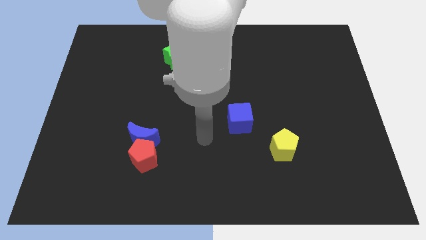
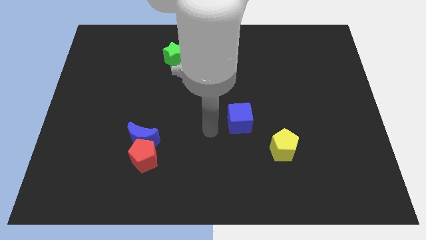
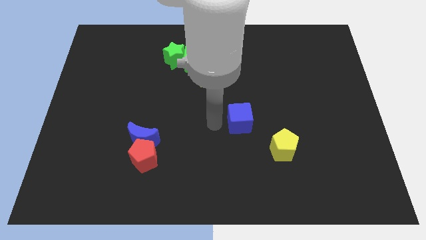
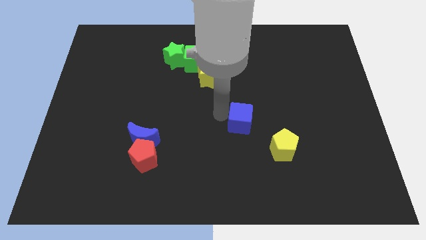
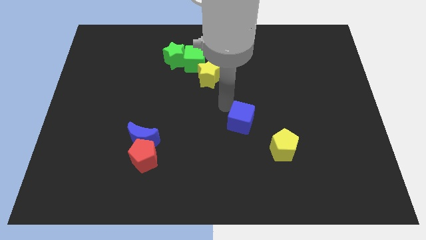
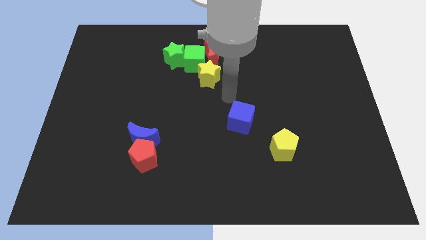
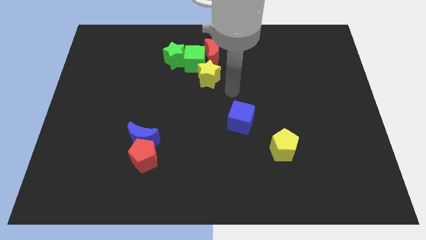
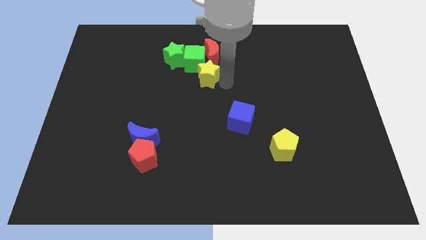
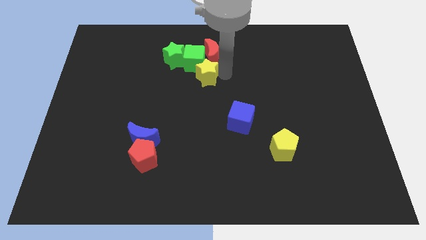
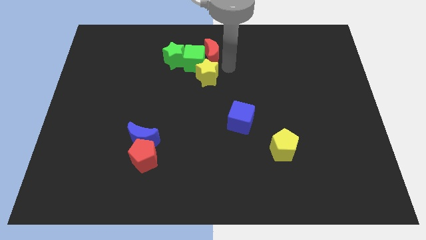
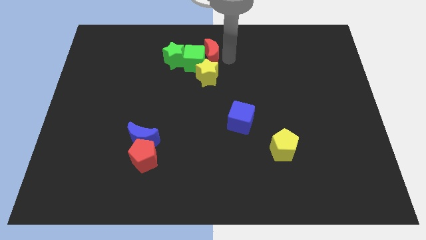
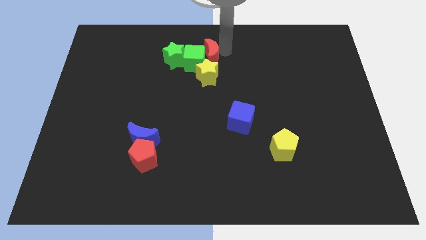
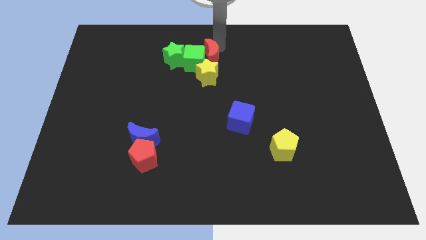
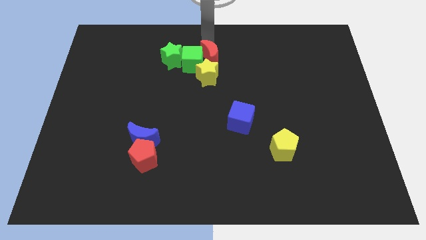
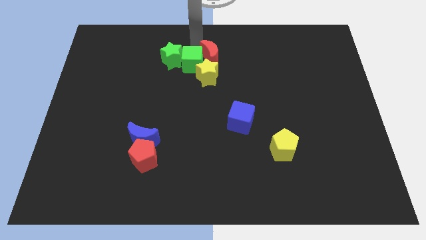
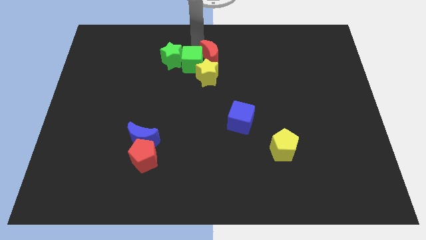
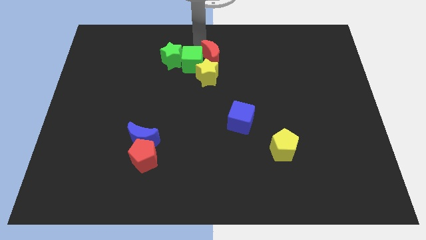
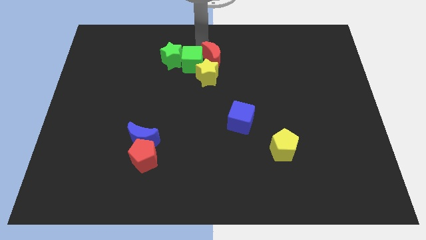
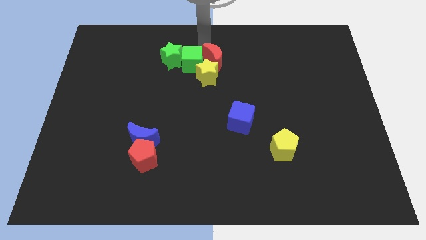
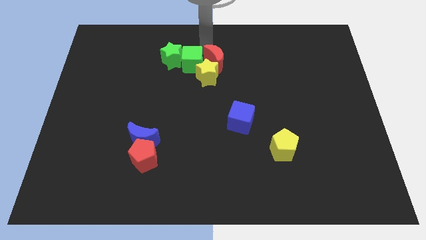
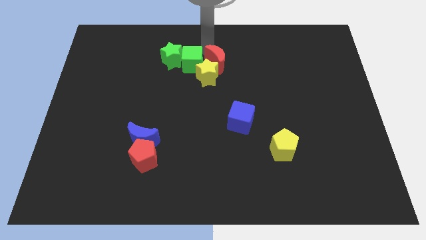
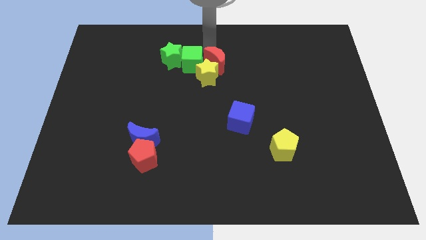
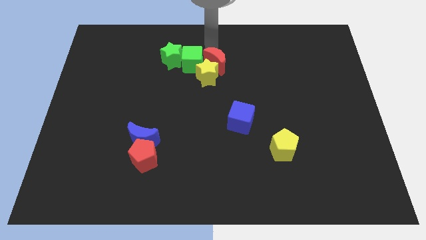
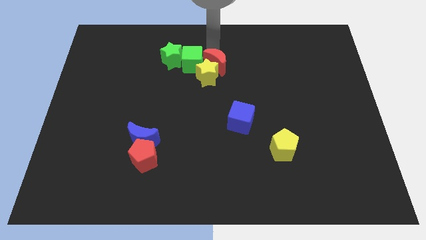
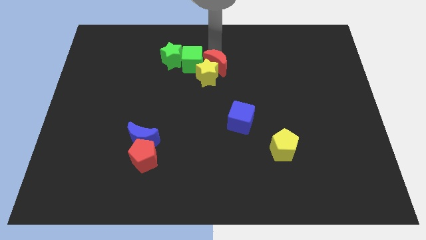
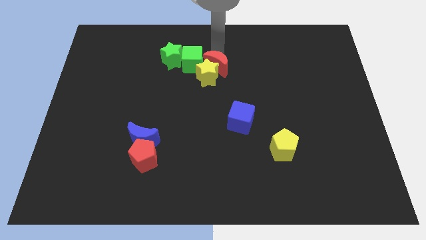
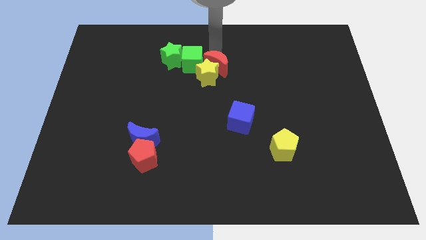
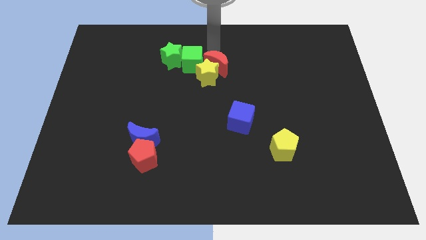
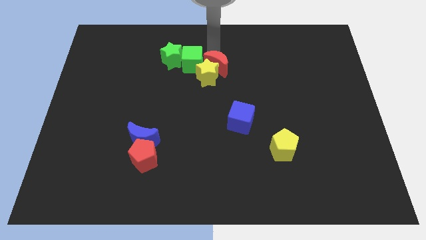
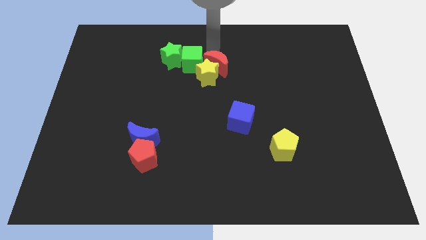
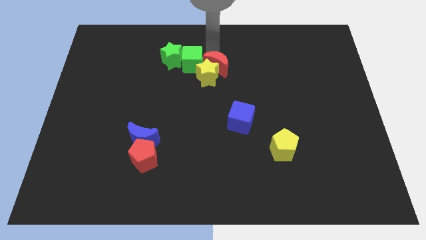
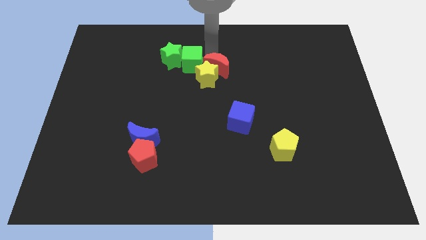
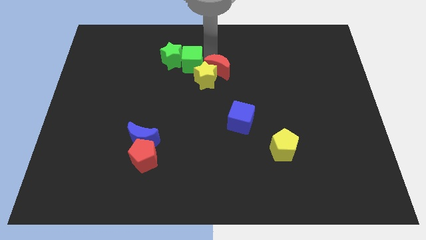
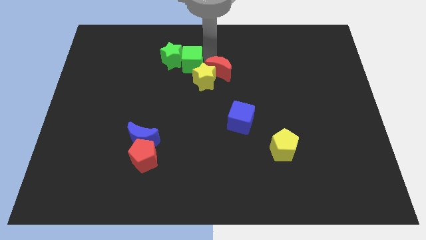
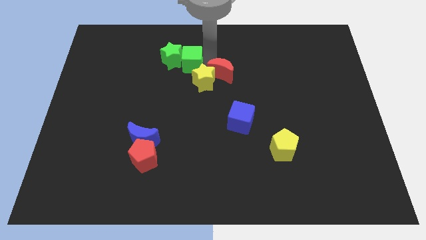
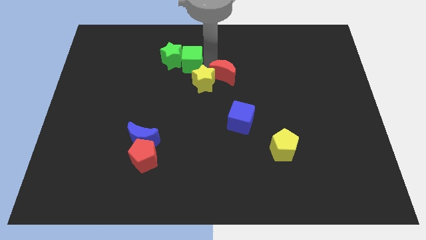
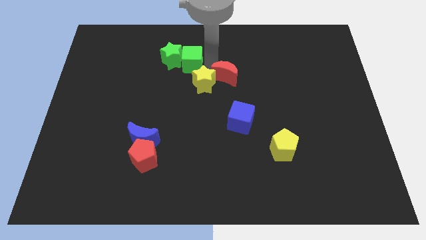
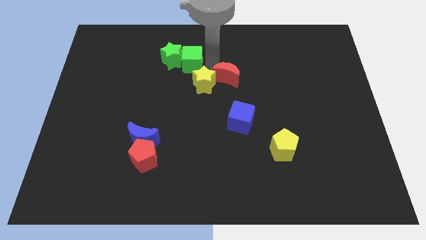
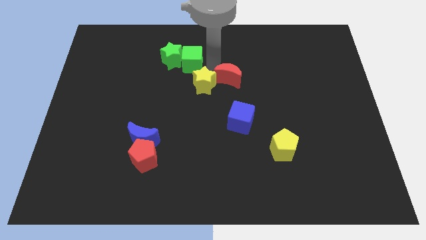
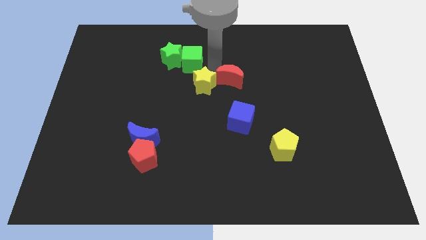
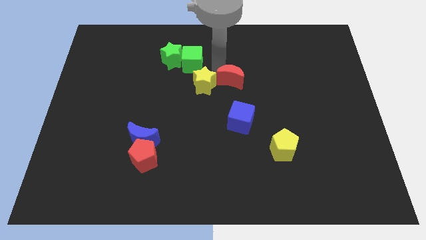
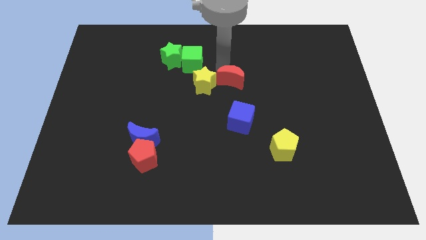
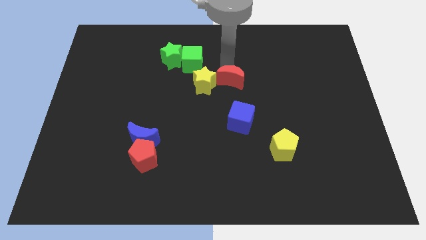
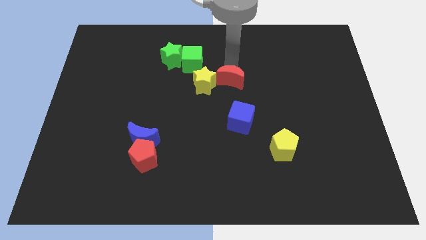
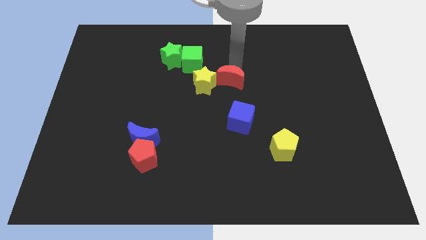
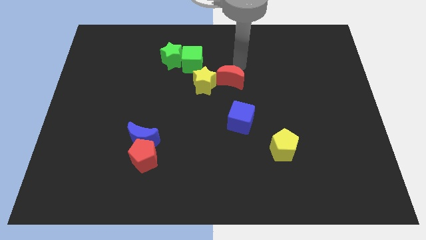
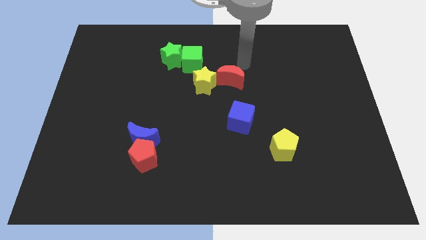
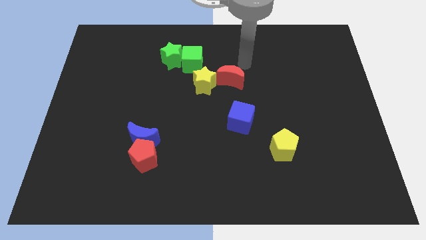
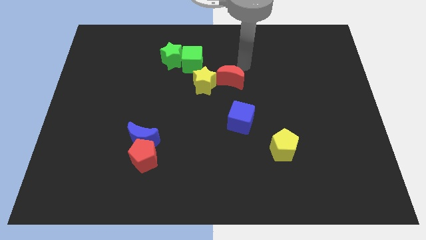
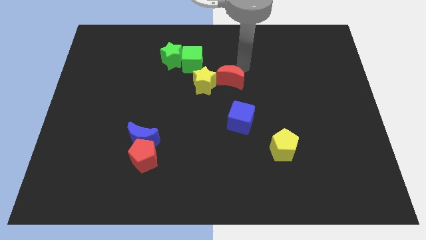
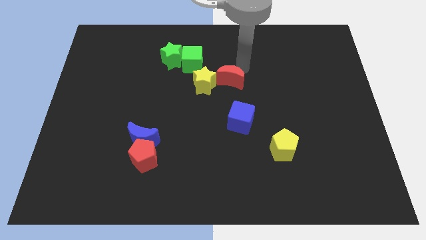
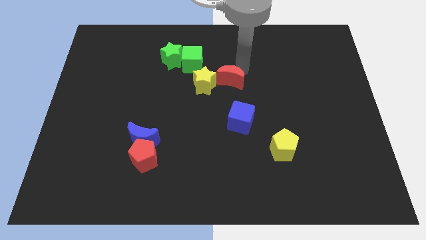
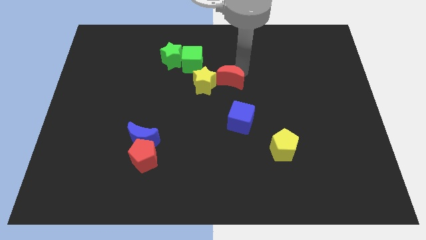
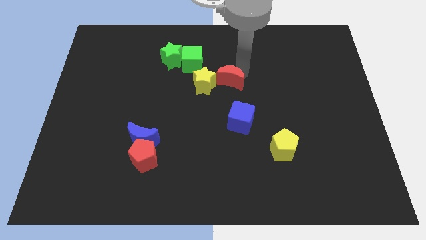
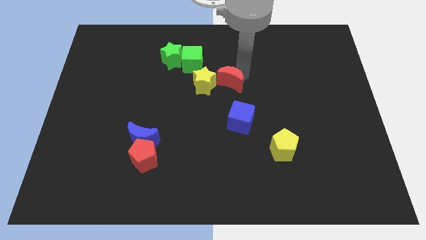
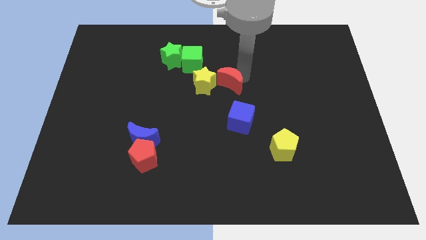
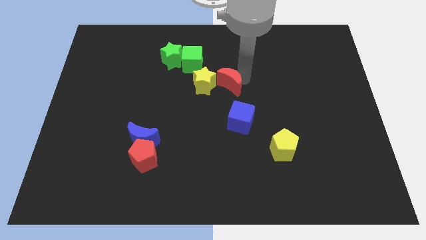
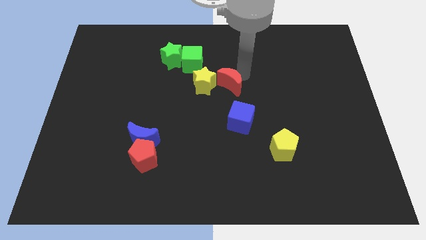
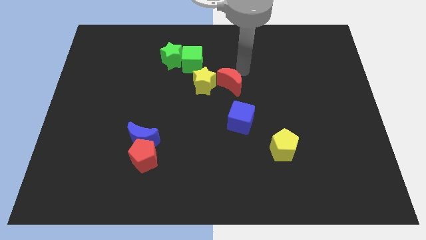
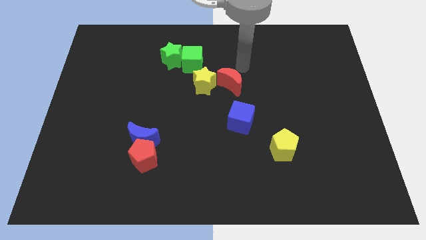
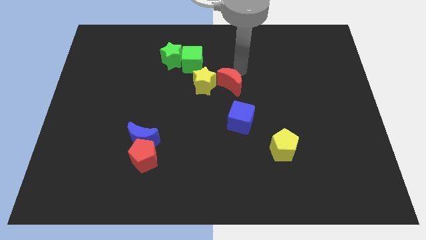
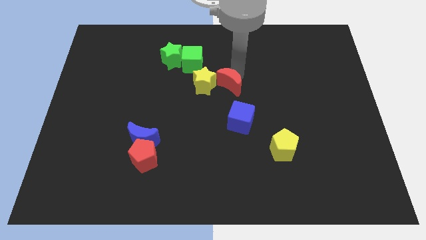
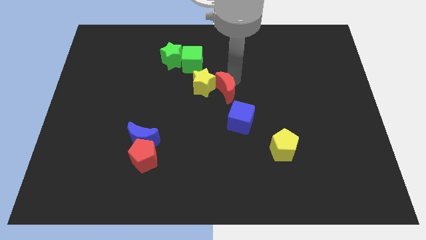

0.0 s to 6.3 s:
push the red moon to the top left of the blue cube

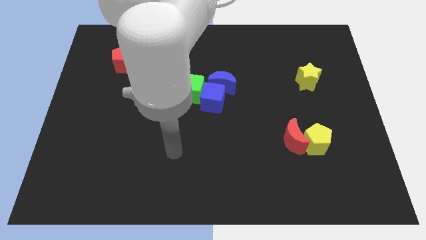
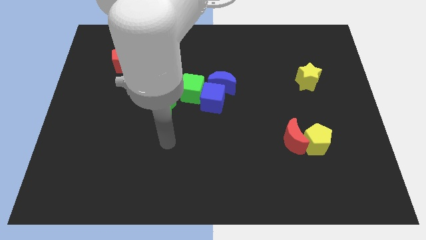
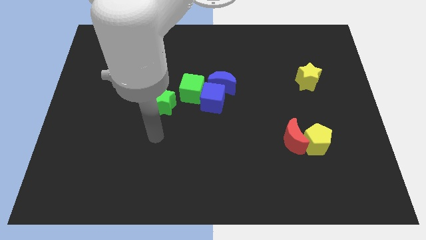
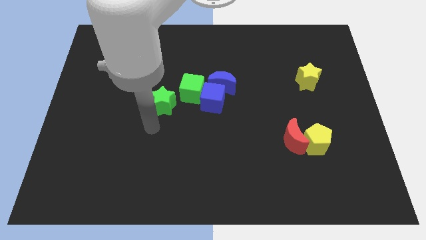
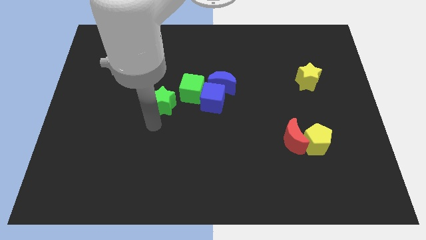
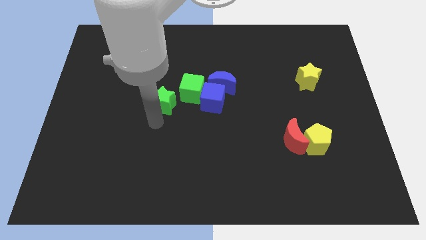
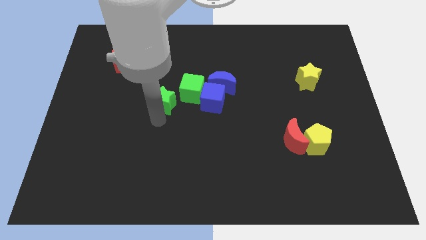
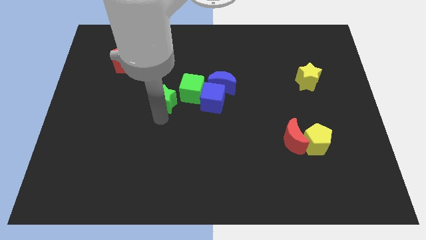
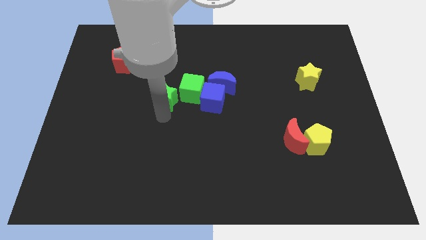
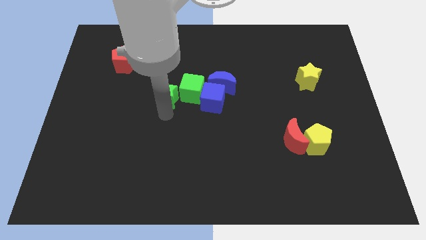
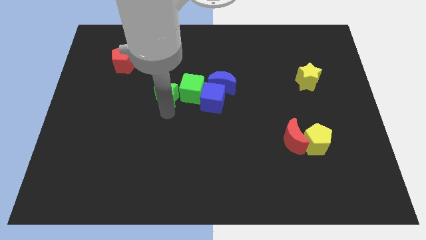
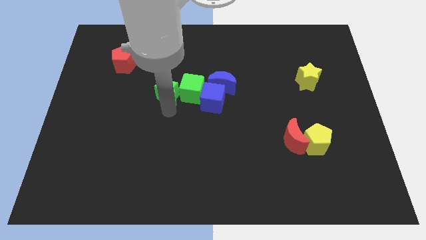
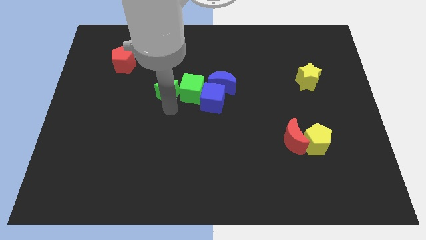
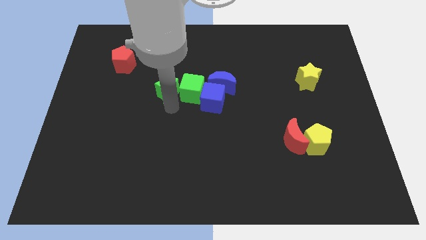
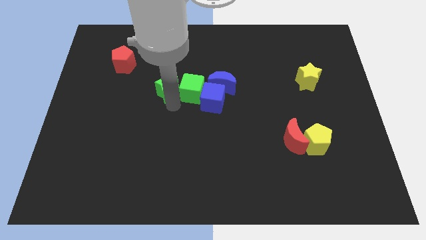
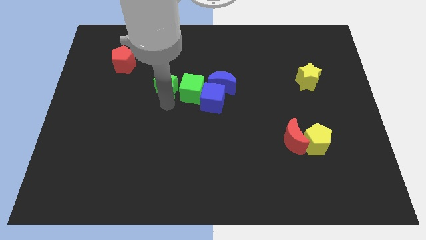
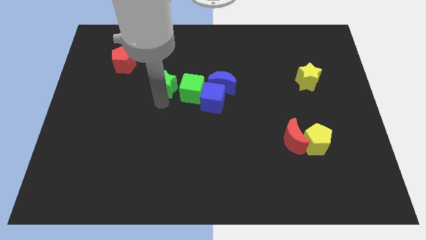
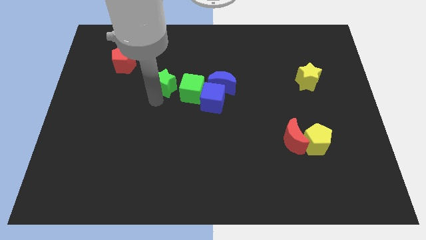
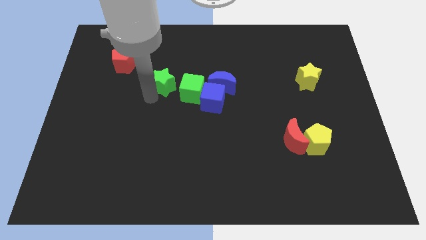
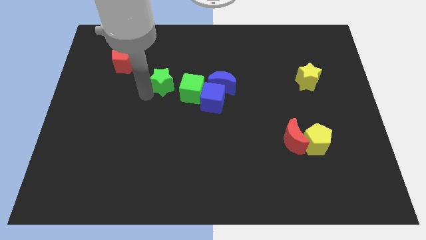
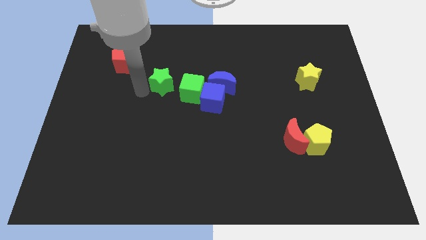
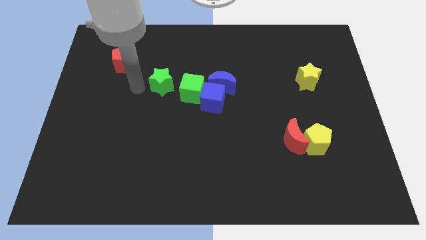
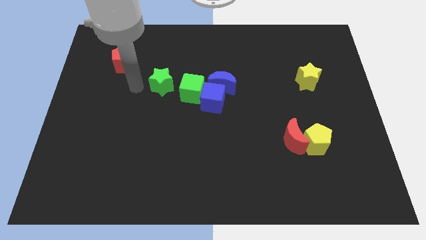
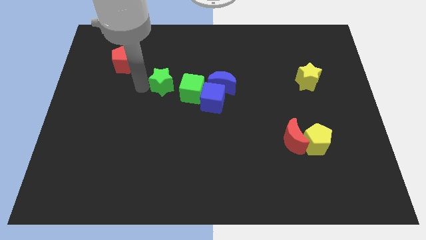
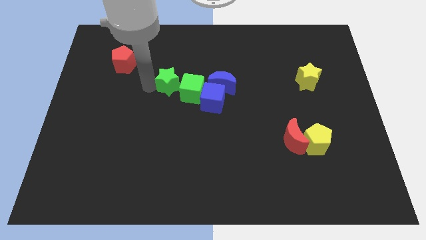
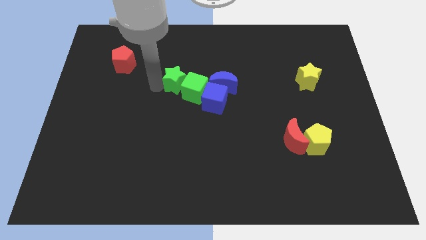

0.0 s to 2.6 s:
move the green star to the top left of the blue cube
